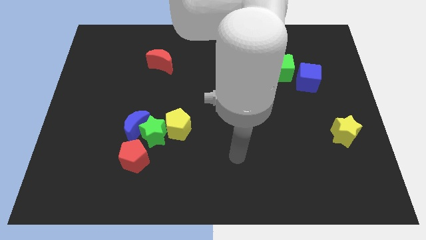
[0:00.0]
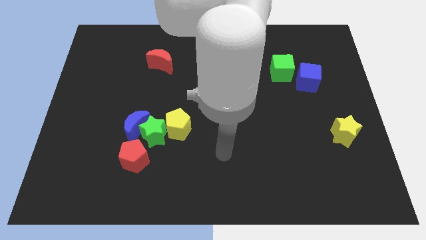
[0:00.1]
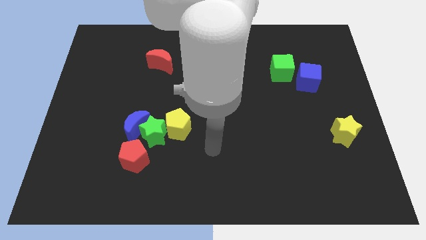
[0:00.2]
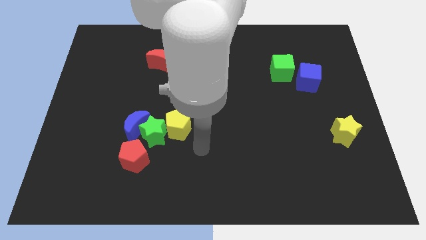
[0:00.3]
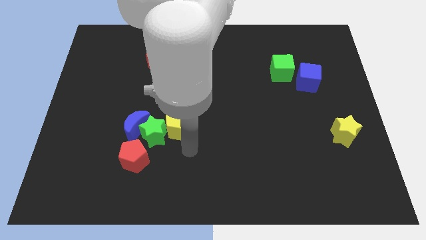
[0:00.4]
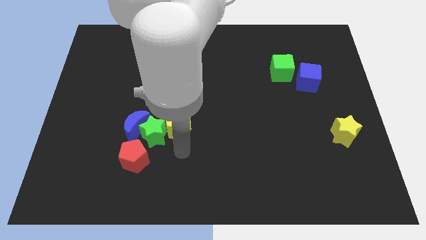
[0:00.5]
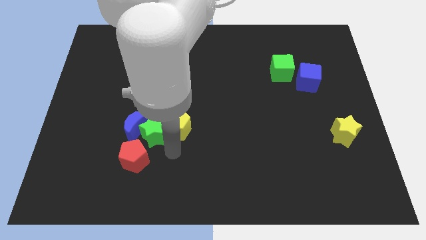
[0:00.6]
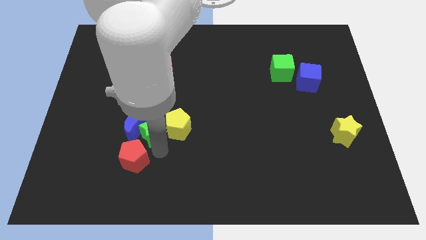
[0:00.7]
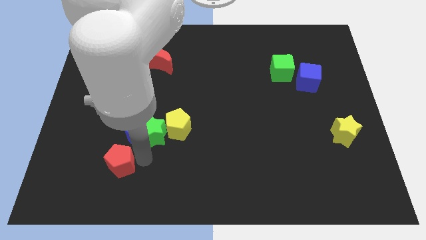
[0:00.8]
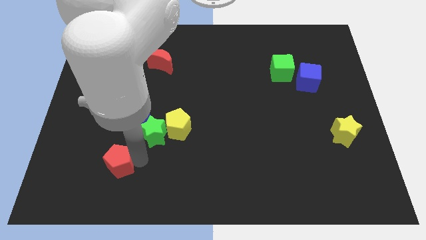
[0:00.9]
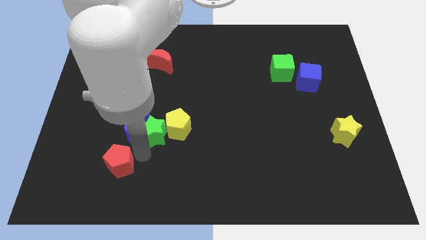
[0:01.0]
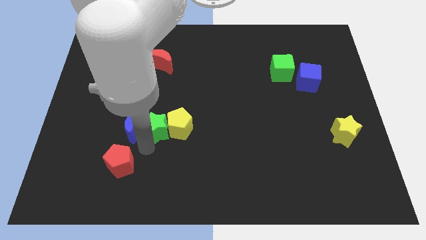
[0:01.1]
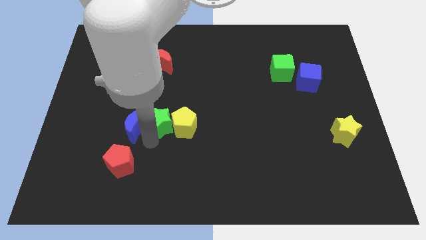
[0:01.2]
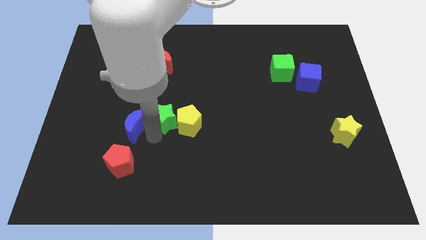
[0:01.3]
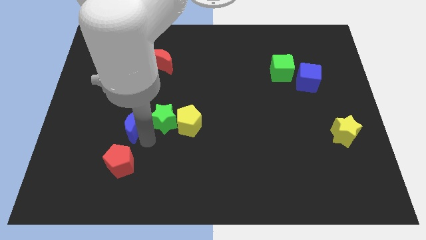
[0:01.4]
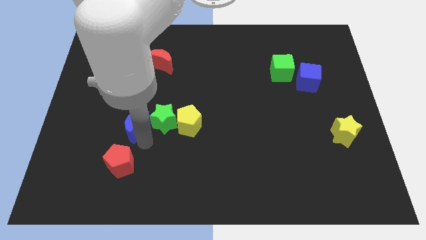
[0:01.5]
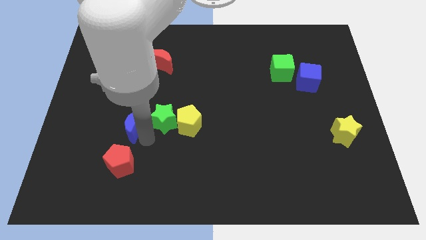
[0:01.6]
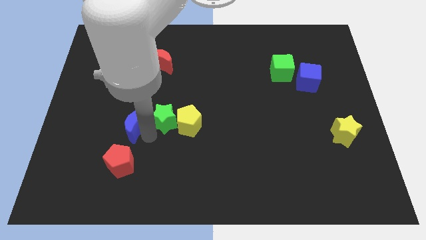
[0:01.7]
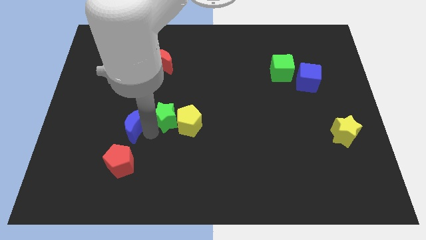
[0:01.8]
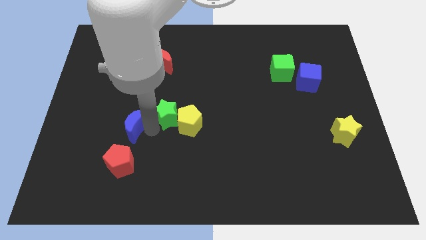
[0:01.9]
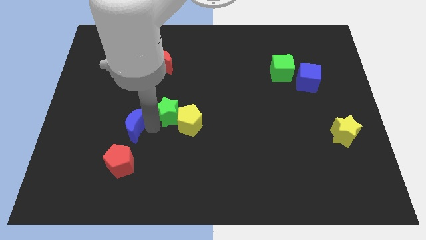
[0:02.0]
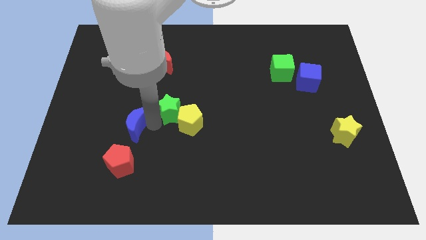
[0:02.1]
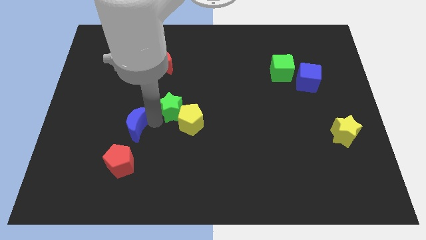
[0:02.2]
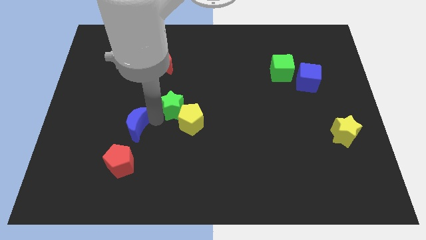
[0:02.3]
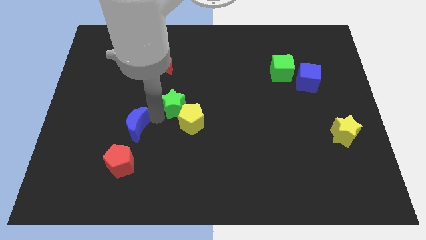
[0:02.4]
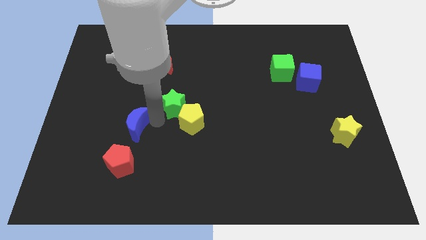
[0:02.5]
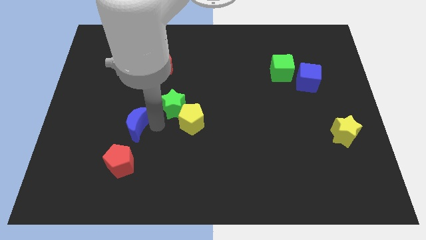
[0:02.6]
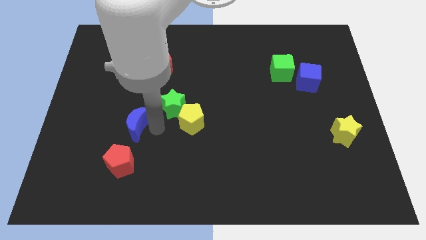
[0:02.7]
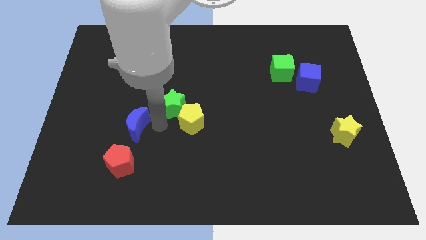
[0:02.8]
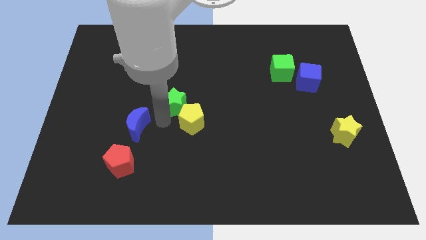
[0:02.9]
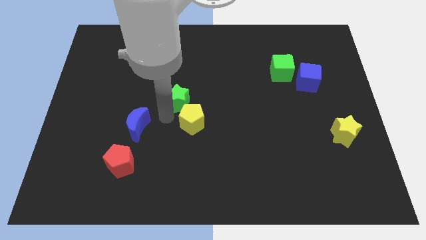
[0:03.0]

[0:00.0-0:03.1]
pull the green star apart from the blue moon, yellow pentagon, and red pentagon

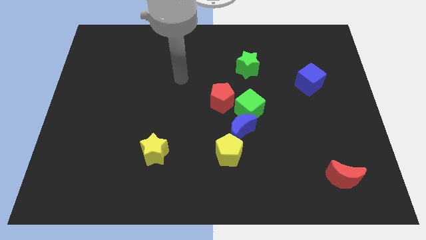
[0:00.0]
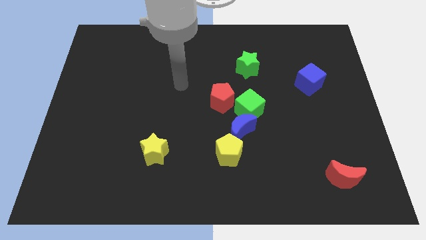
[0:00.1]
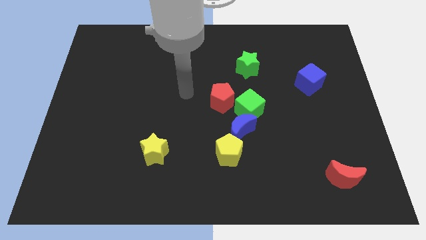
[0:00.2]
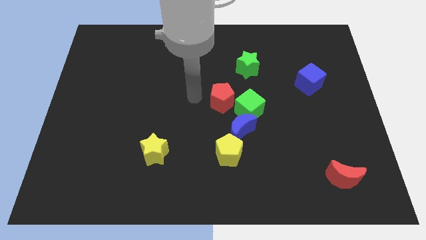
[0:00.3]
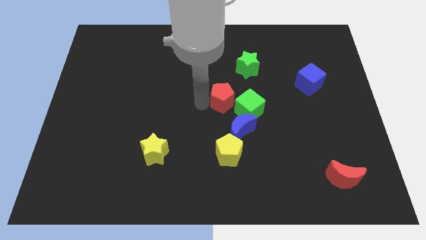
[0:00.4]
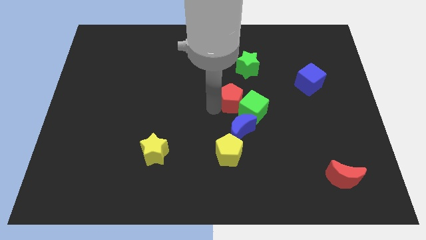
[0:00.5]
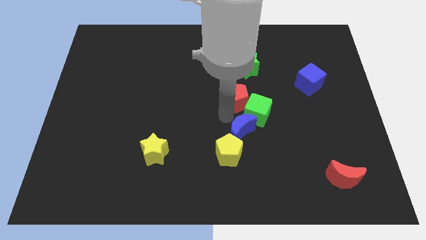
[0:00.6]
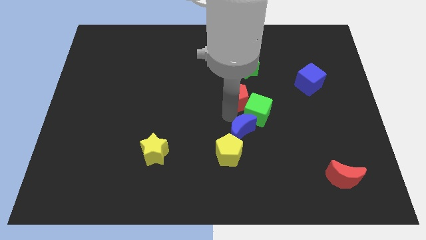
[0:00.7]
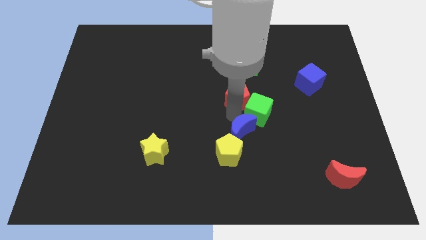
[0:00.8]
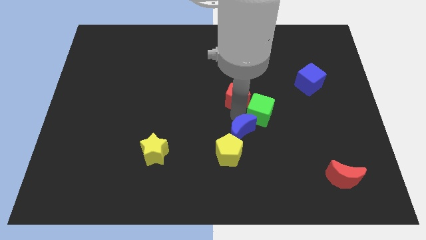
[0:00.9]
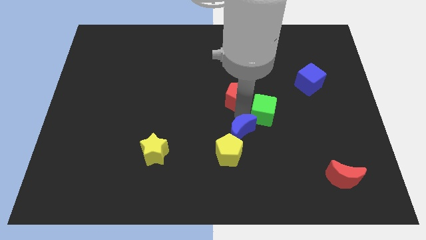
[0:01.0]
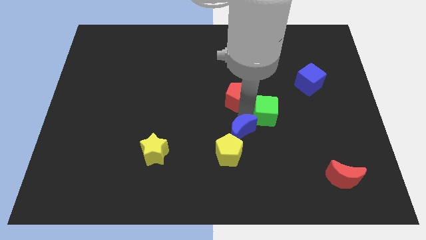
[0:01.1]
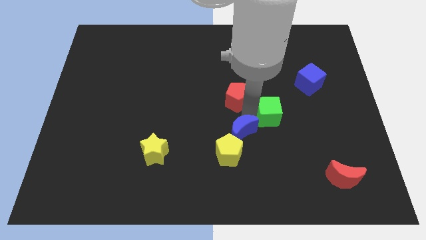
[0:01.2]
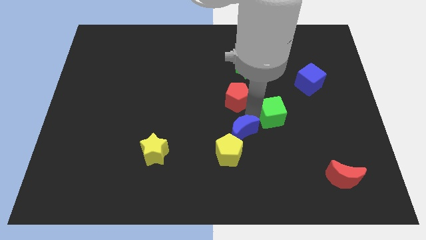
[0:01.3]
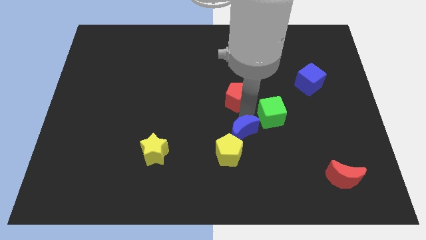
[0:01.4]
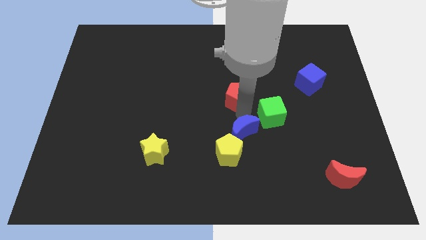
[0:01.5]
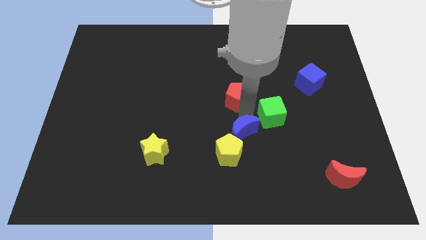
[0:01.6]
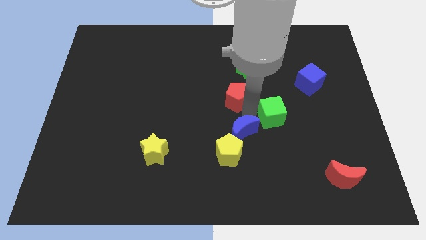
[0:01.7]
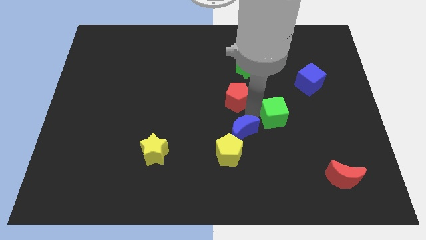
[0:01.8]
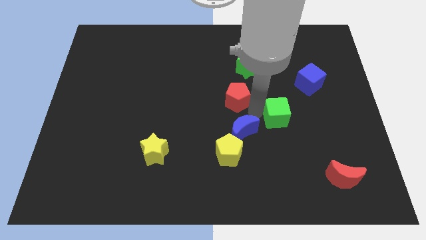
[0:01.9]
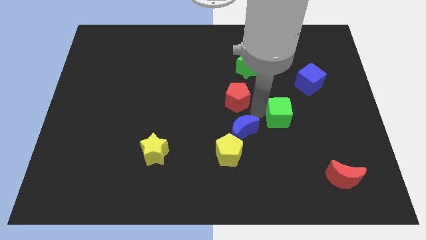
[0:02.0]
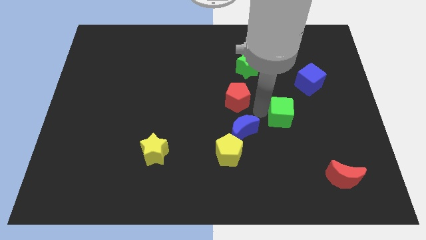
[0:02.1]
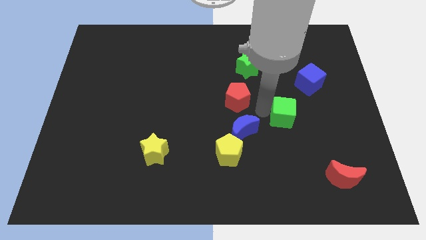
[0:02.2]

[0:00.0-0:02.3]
move the green cube away from the blue moon and red pentagon

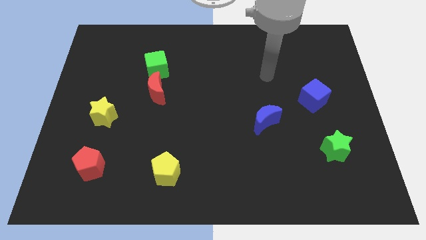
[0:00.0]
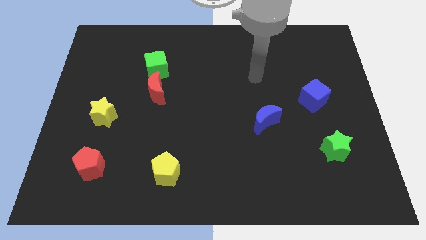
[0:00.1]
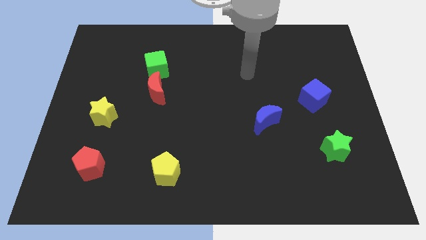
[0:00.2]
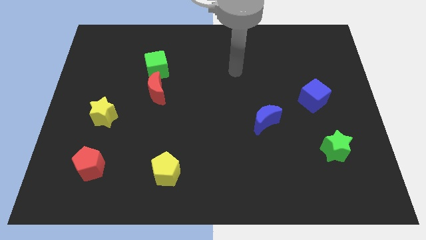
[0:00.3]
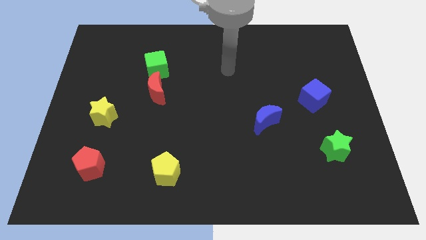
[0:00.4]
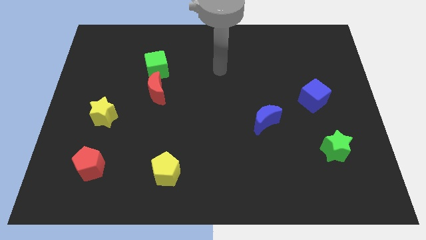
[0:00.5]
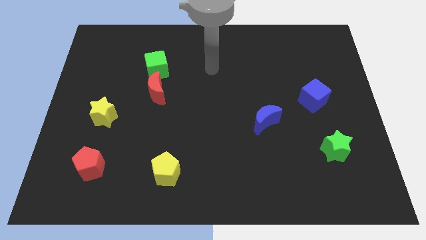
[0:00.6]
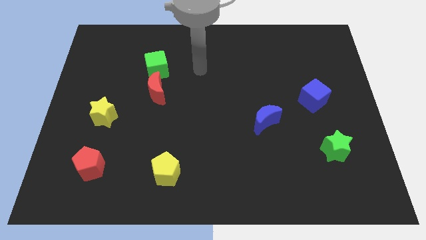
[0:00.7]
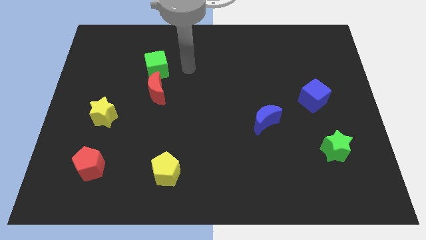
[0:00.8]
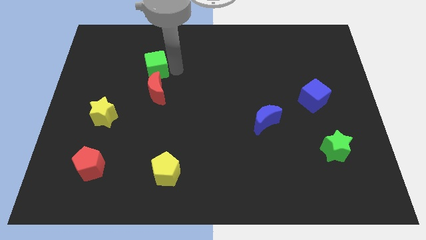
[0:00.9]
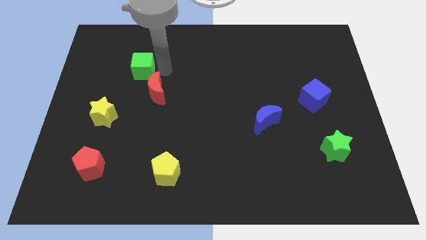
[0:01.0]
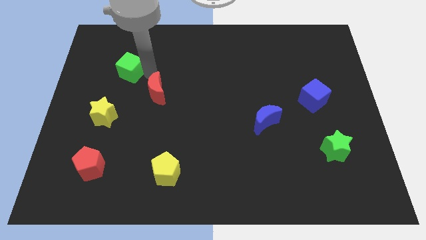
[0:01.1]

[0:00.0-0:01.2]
separate the red moon from the green cube

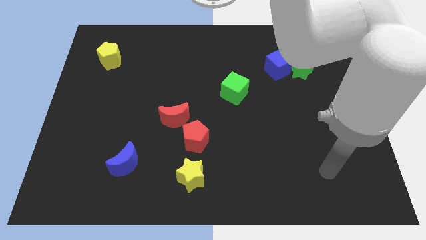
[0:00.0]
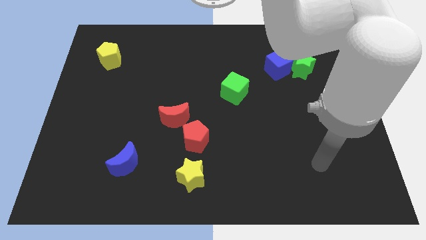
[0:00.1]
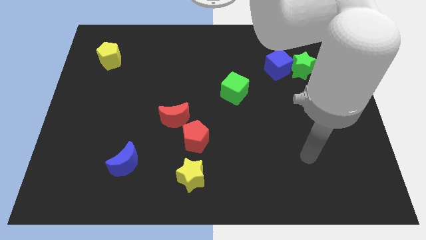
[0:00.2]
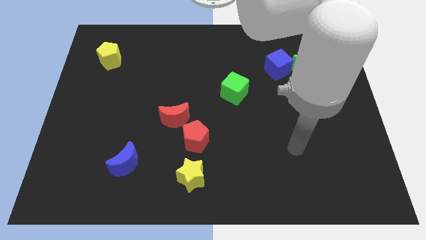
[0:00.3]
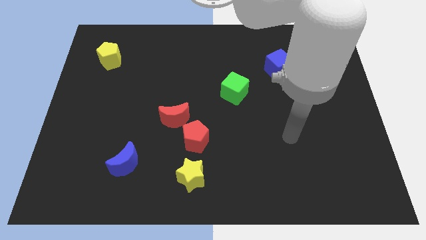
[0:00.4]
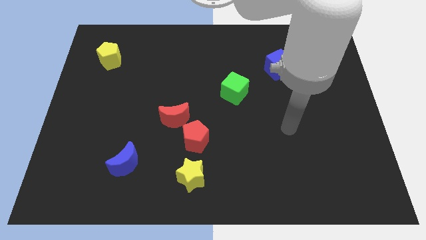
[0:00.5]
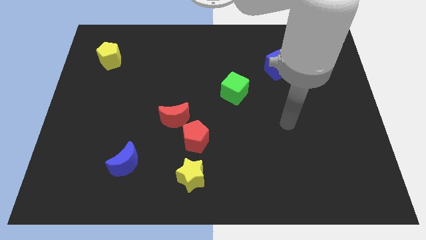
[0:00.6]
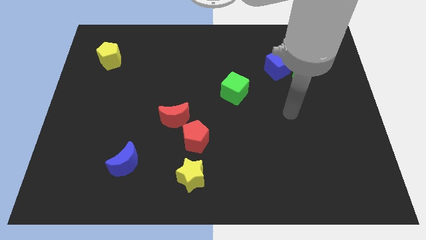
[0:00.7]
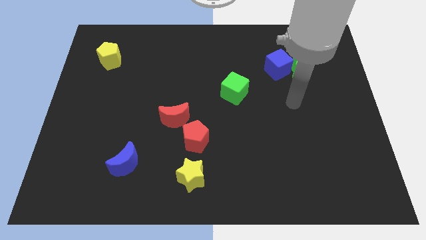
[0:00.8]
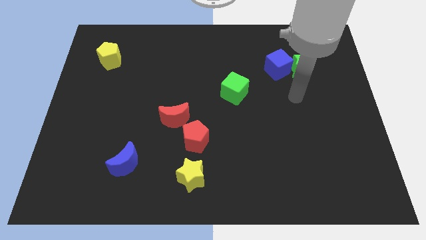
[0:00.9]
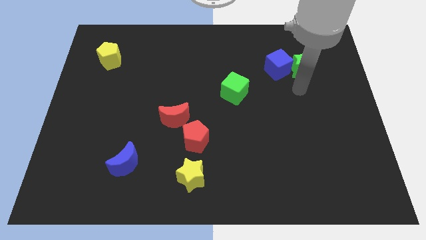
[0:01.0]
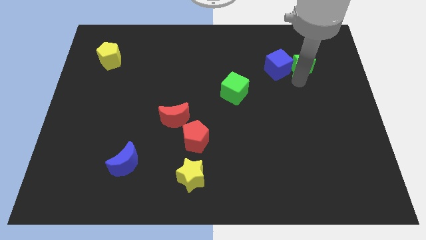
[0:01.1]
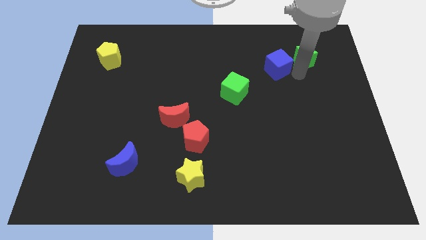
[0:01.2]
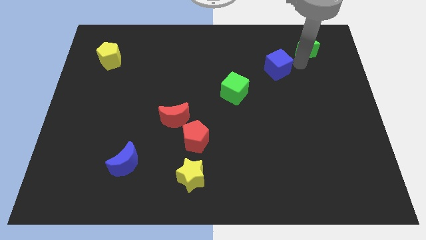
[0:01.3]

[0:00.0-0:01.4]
separate the blue cube from the green star

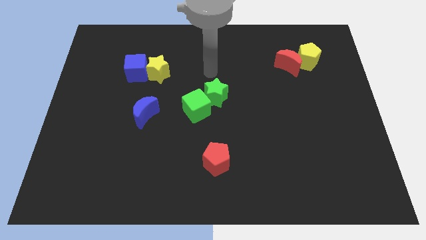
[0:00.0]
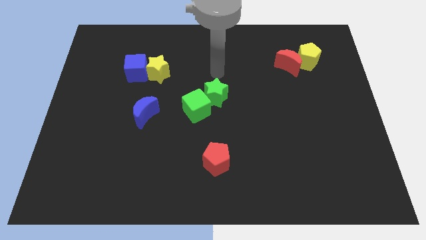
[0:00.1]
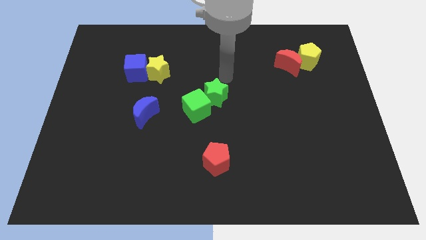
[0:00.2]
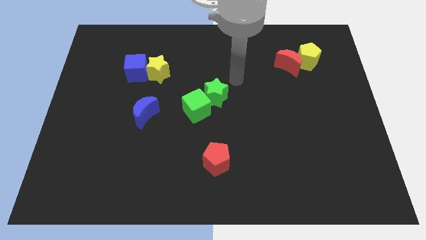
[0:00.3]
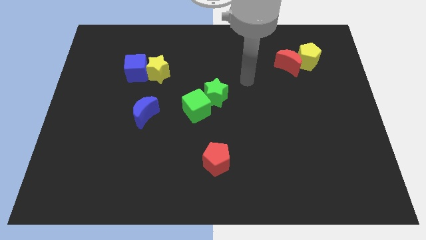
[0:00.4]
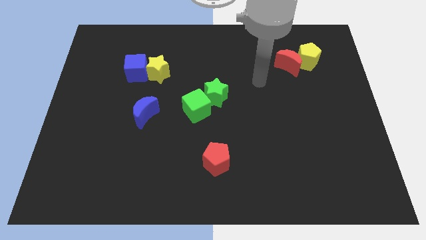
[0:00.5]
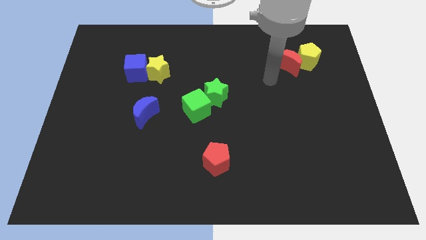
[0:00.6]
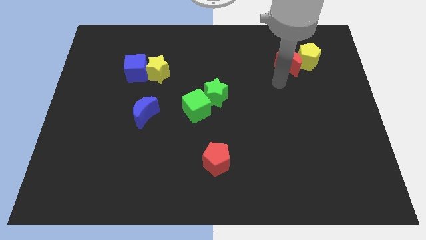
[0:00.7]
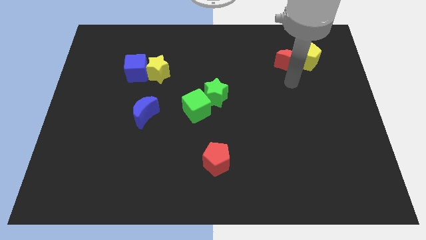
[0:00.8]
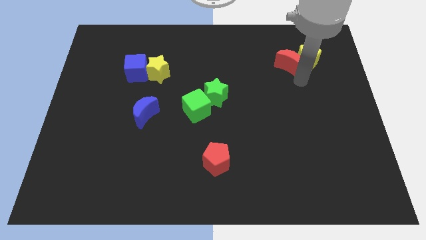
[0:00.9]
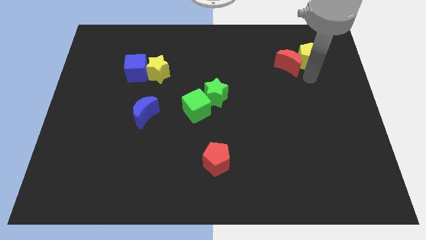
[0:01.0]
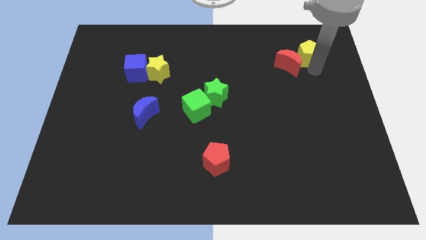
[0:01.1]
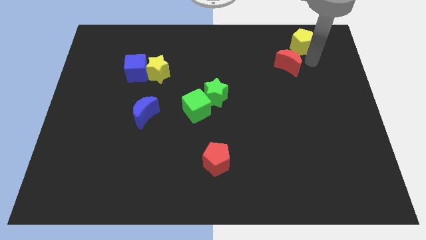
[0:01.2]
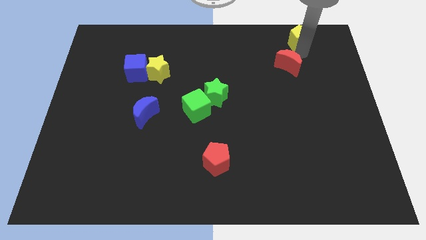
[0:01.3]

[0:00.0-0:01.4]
pull the red moon apart from the yellow pentagon
